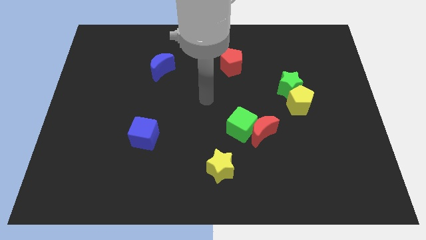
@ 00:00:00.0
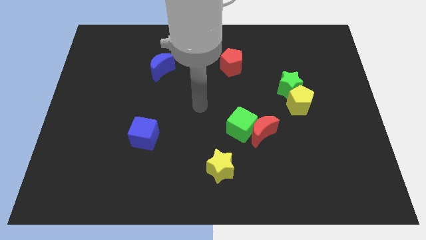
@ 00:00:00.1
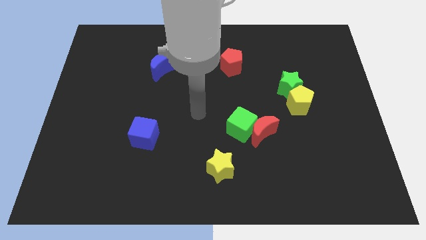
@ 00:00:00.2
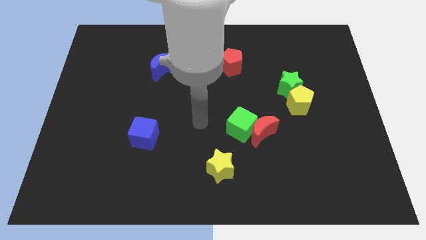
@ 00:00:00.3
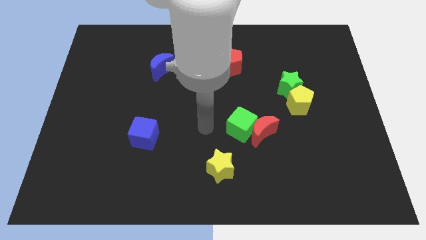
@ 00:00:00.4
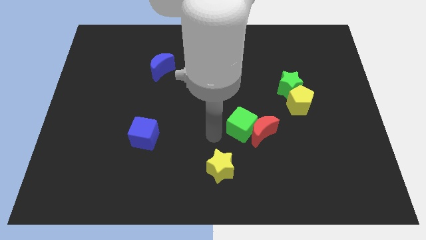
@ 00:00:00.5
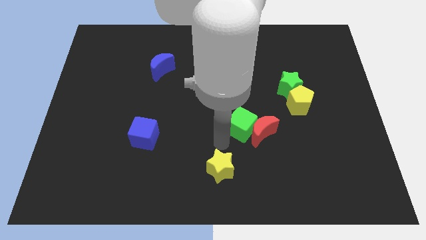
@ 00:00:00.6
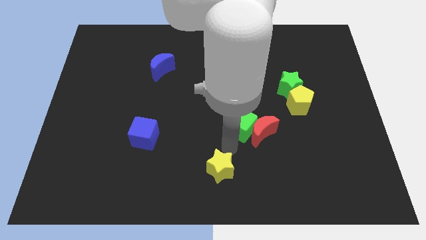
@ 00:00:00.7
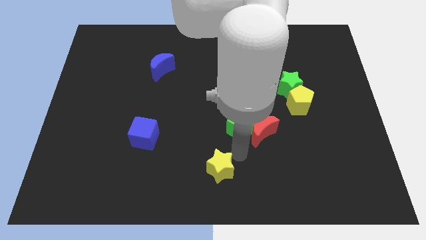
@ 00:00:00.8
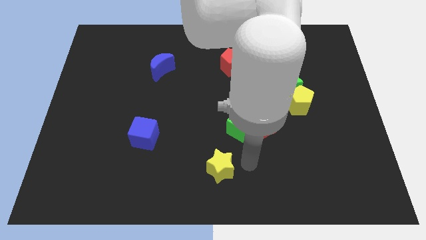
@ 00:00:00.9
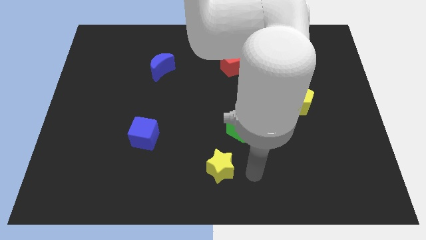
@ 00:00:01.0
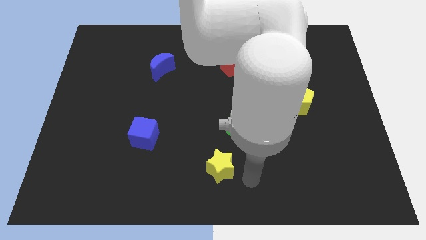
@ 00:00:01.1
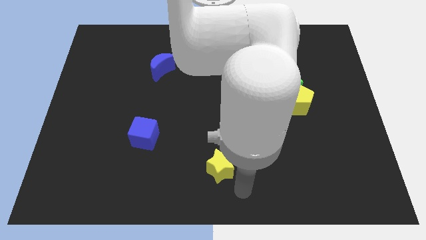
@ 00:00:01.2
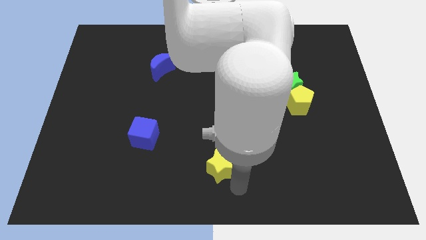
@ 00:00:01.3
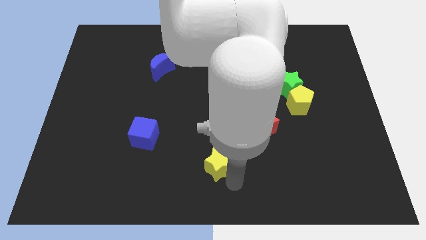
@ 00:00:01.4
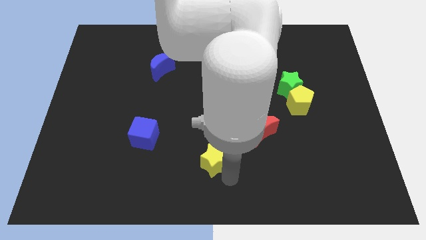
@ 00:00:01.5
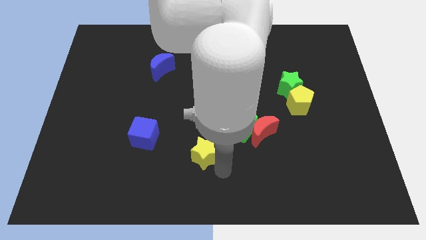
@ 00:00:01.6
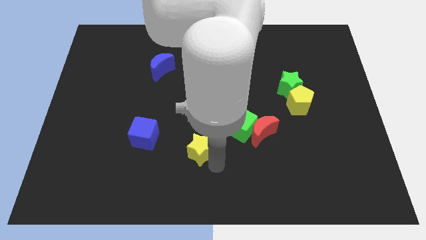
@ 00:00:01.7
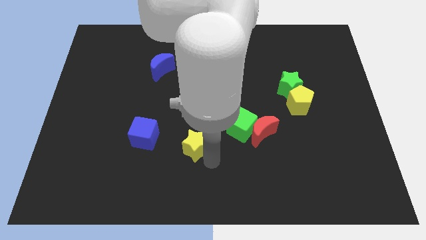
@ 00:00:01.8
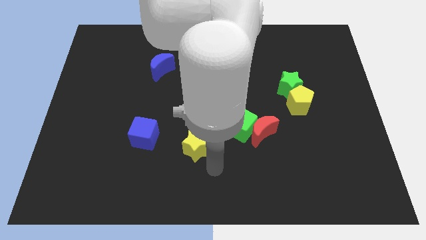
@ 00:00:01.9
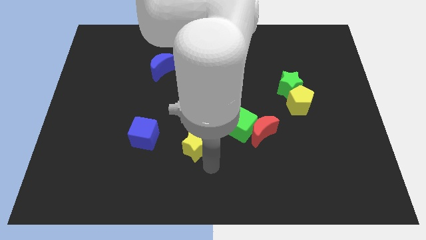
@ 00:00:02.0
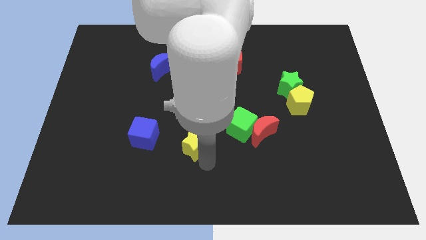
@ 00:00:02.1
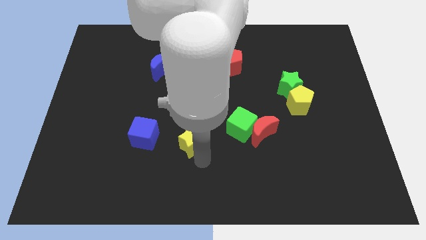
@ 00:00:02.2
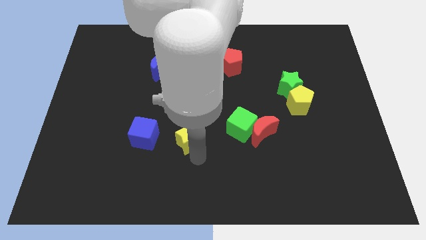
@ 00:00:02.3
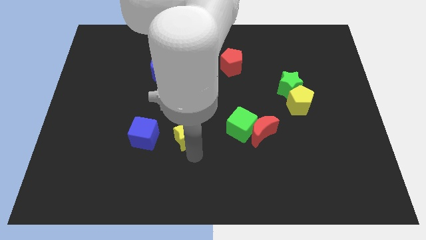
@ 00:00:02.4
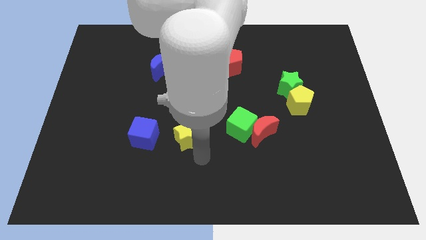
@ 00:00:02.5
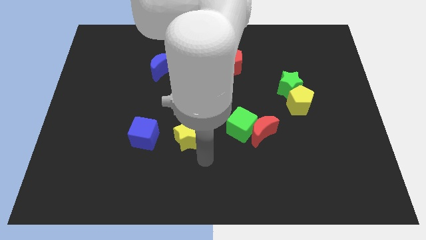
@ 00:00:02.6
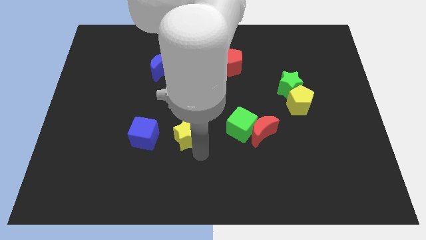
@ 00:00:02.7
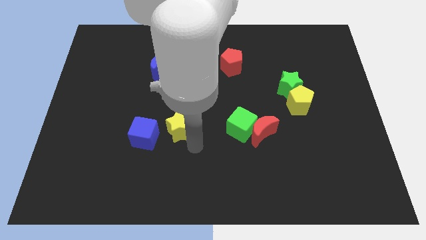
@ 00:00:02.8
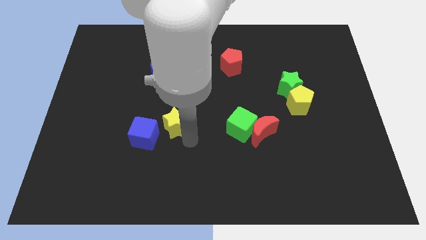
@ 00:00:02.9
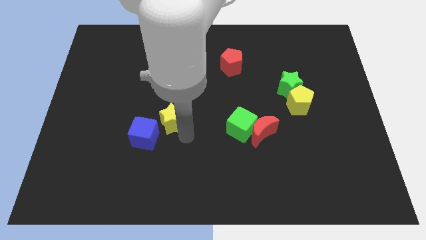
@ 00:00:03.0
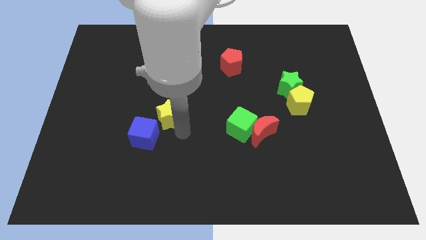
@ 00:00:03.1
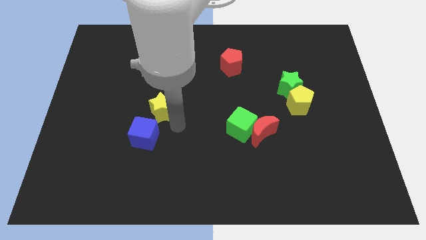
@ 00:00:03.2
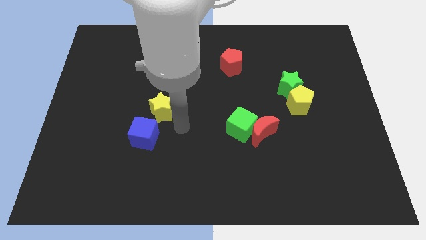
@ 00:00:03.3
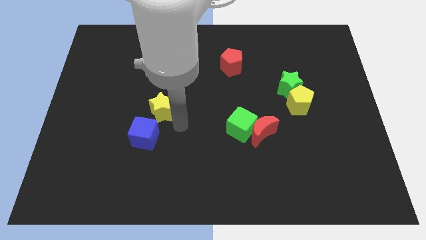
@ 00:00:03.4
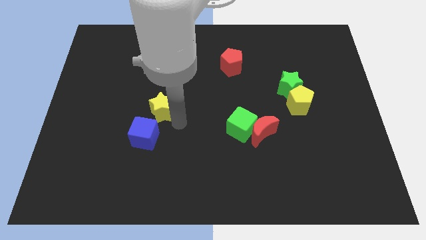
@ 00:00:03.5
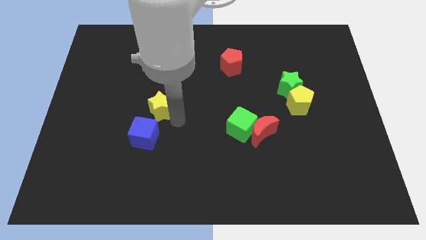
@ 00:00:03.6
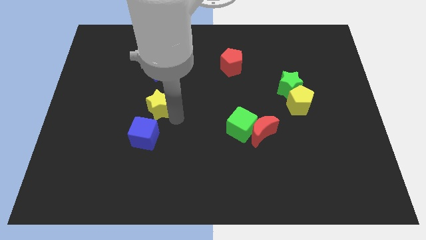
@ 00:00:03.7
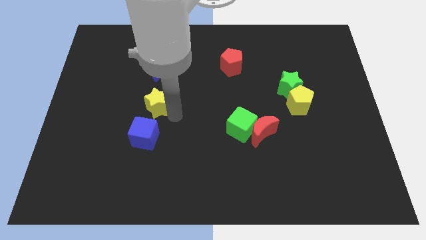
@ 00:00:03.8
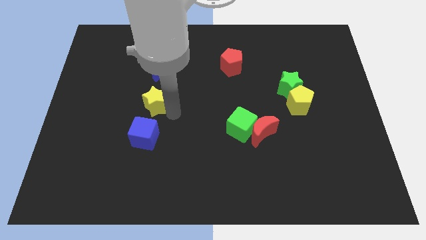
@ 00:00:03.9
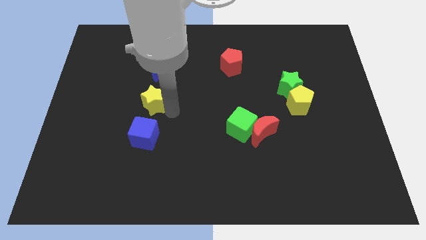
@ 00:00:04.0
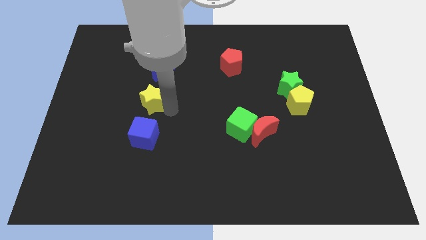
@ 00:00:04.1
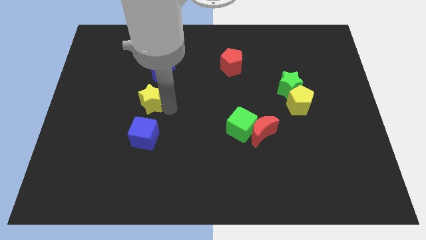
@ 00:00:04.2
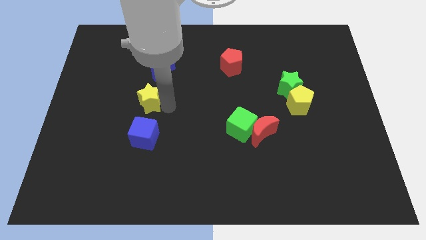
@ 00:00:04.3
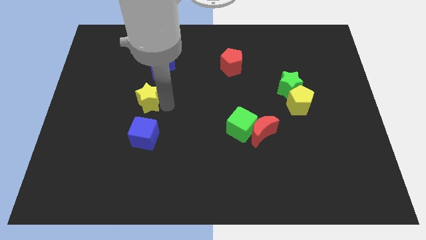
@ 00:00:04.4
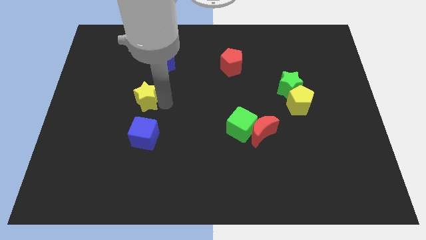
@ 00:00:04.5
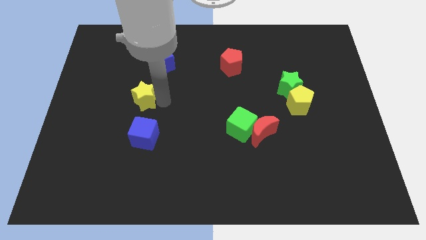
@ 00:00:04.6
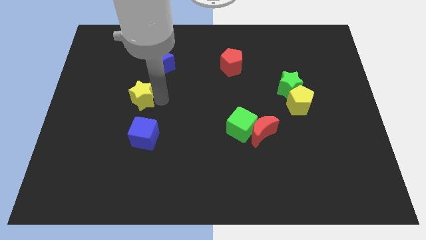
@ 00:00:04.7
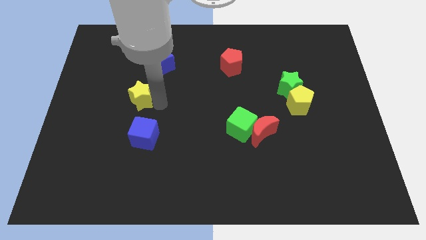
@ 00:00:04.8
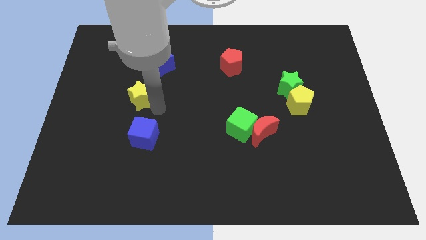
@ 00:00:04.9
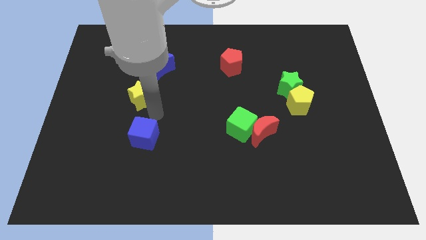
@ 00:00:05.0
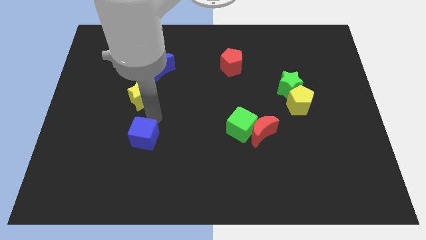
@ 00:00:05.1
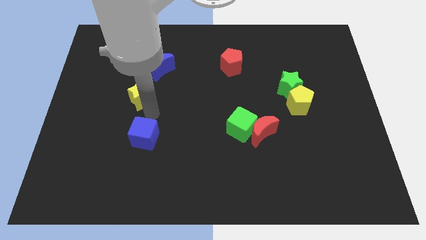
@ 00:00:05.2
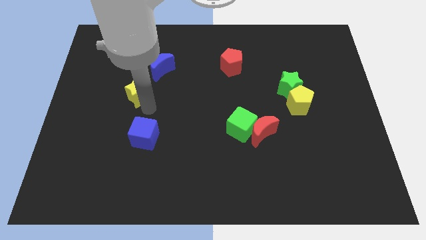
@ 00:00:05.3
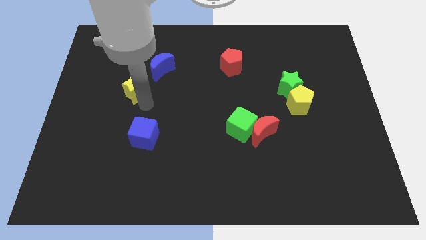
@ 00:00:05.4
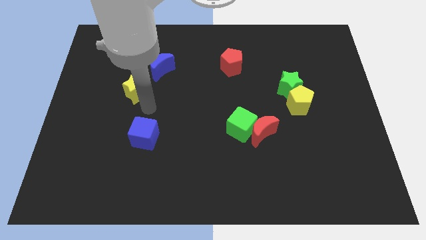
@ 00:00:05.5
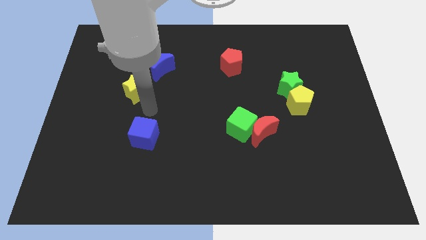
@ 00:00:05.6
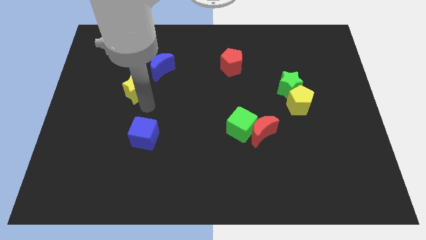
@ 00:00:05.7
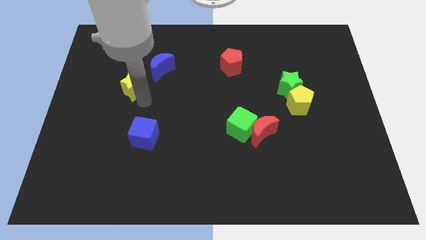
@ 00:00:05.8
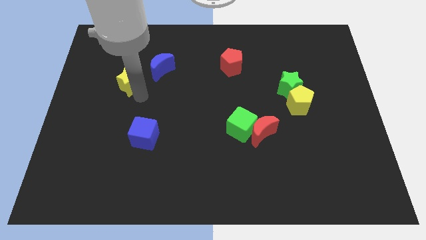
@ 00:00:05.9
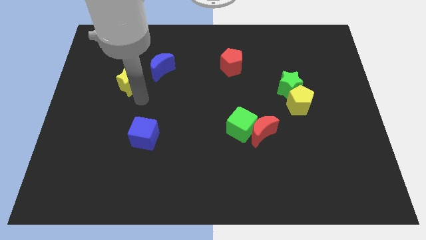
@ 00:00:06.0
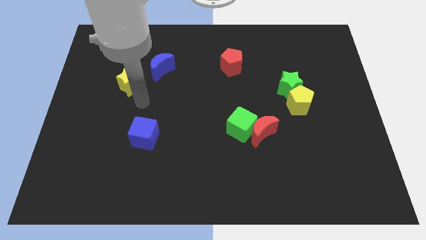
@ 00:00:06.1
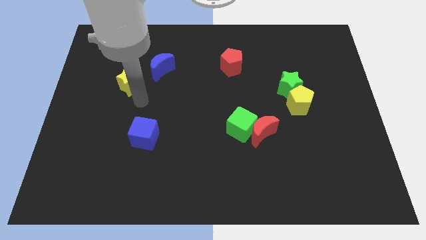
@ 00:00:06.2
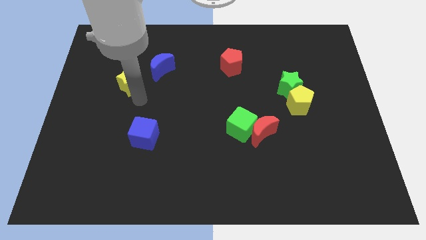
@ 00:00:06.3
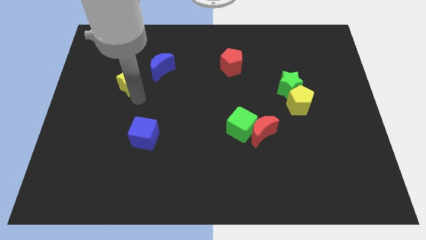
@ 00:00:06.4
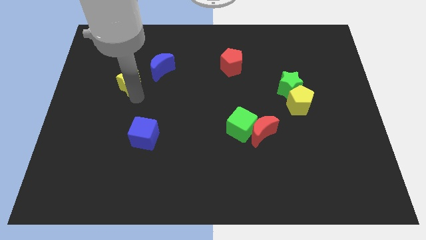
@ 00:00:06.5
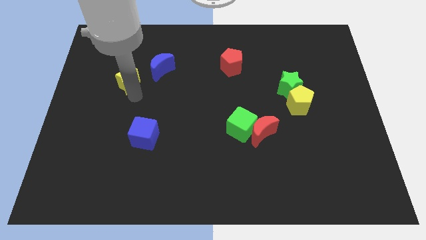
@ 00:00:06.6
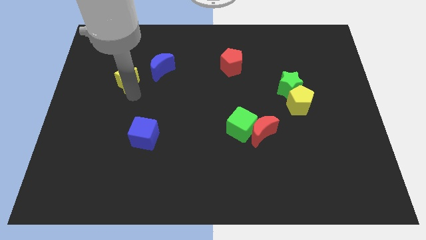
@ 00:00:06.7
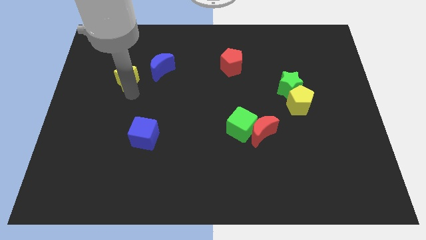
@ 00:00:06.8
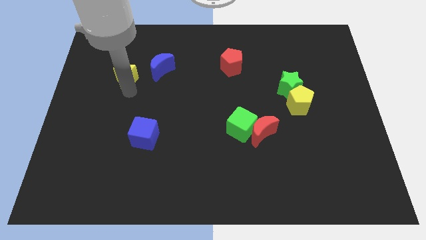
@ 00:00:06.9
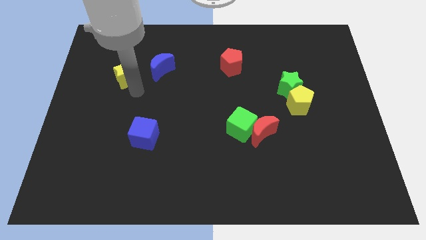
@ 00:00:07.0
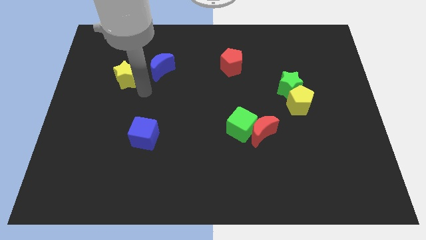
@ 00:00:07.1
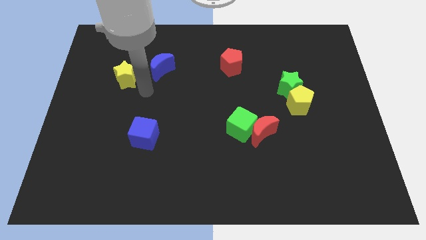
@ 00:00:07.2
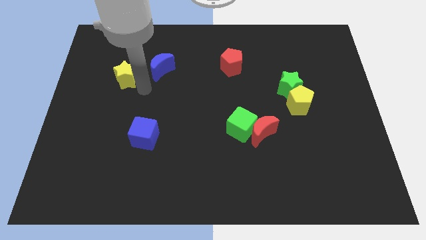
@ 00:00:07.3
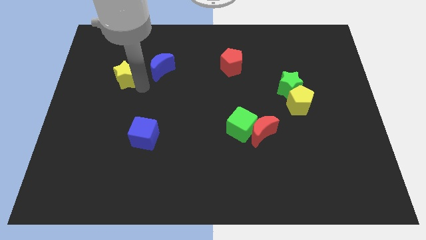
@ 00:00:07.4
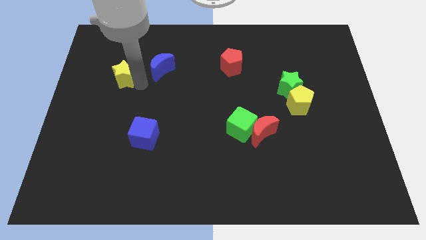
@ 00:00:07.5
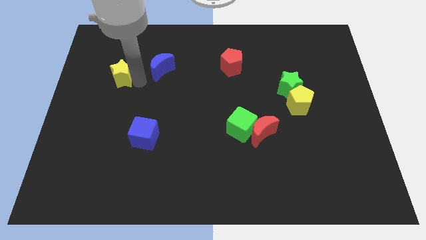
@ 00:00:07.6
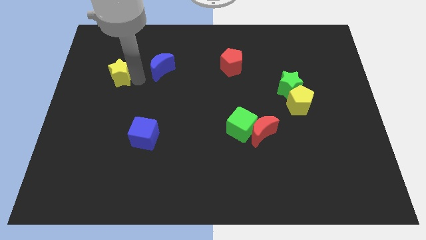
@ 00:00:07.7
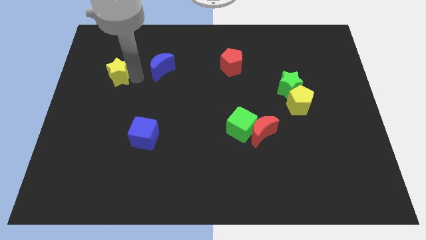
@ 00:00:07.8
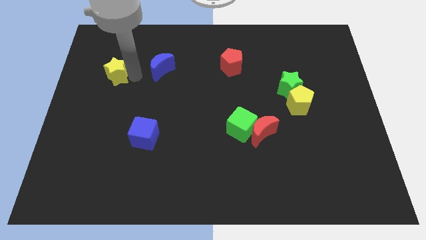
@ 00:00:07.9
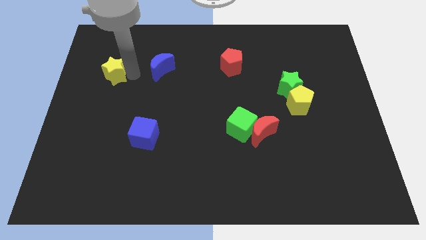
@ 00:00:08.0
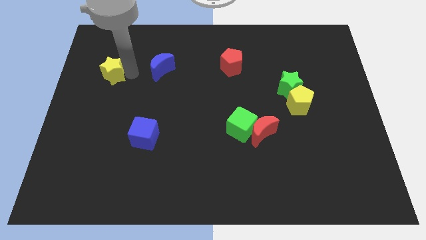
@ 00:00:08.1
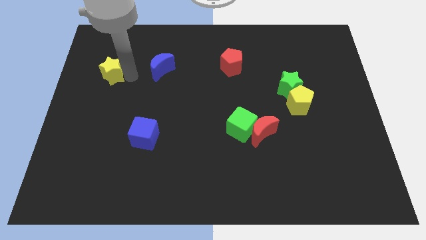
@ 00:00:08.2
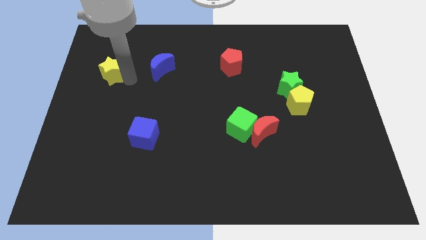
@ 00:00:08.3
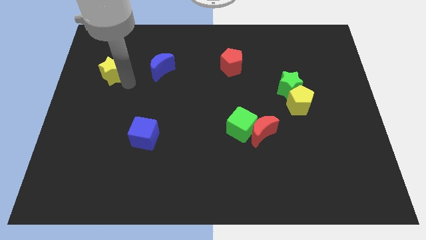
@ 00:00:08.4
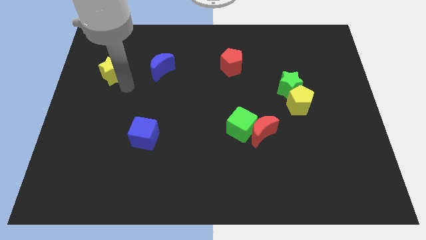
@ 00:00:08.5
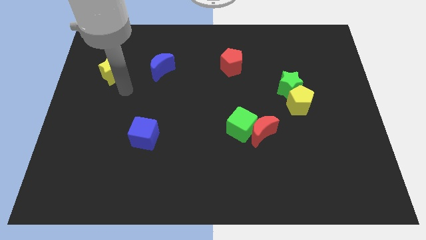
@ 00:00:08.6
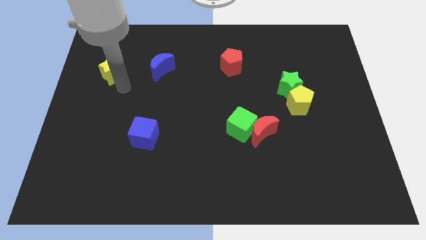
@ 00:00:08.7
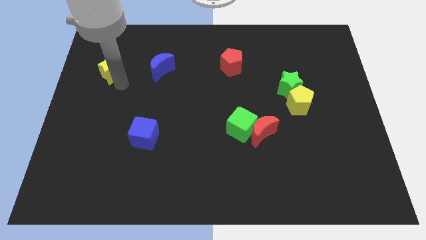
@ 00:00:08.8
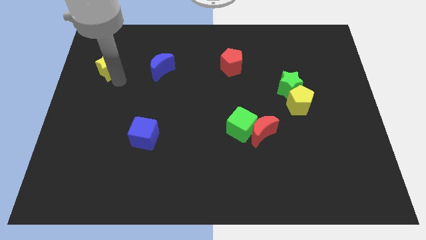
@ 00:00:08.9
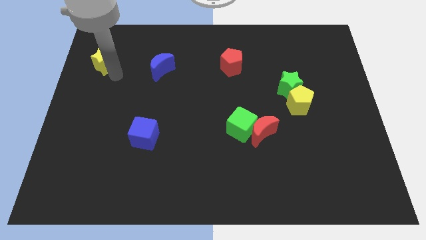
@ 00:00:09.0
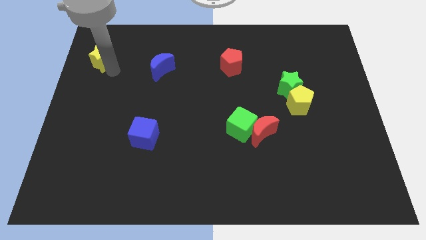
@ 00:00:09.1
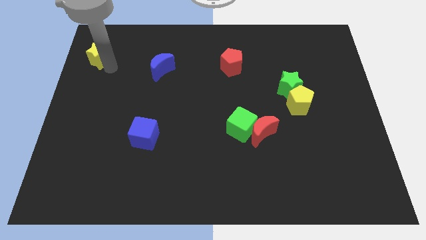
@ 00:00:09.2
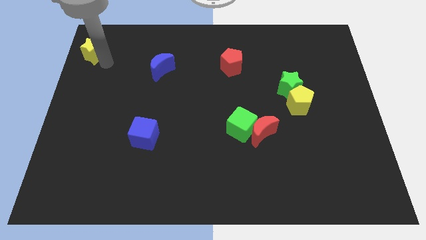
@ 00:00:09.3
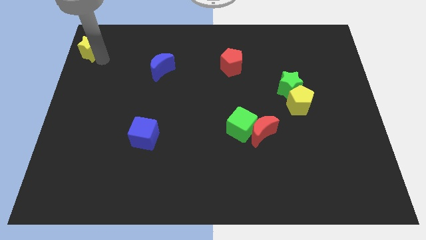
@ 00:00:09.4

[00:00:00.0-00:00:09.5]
move the yellow star to the top left corner
